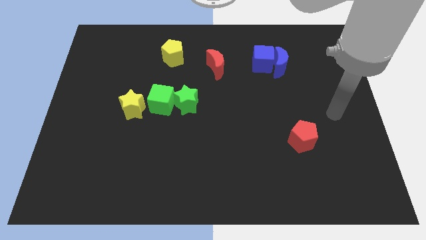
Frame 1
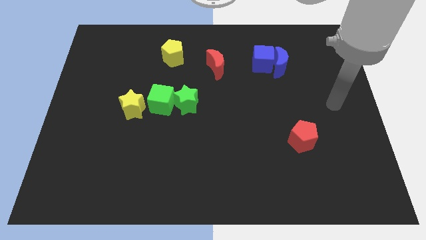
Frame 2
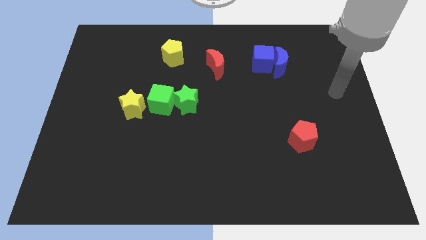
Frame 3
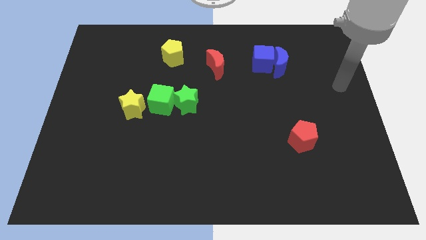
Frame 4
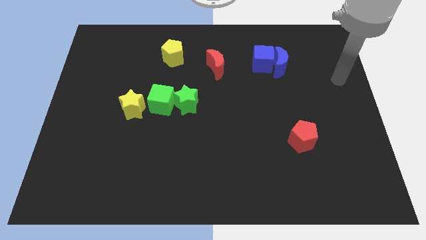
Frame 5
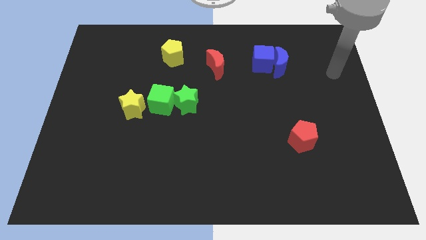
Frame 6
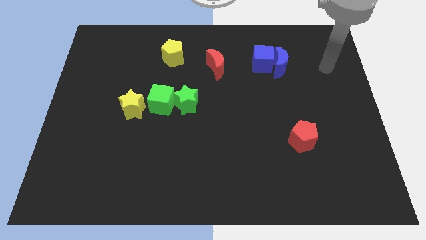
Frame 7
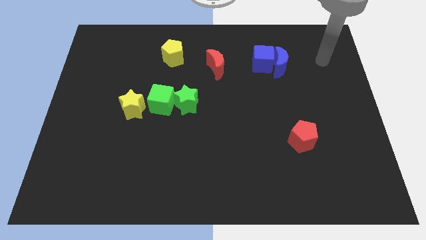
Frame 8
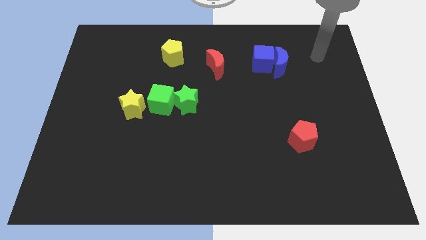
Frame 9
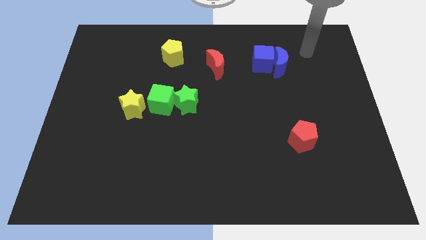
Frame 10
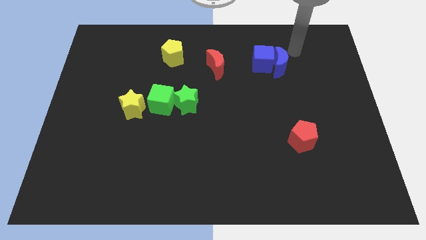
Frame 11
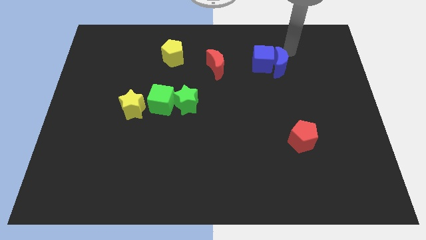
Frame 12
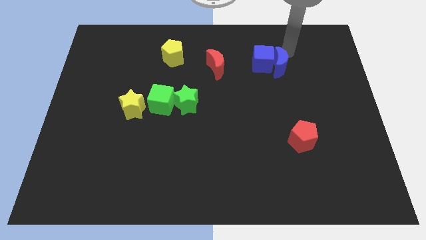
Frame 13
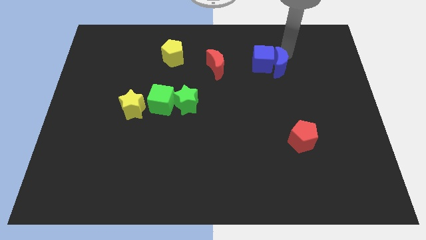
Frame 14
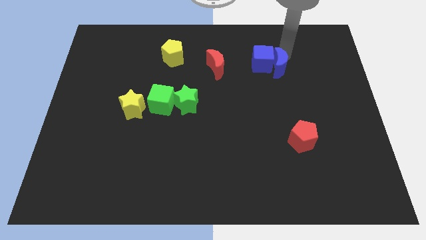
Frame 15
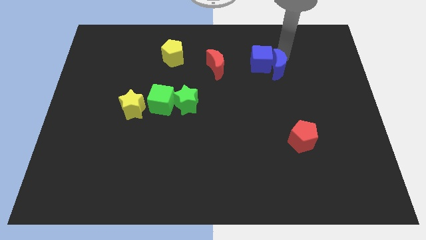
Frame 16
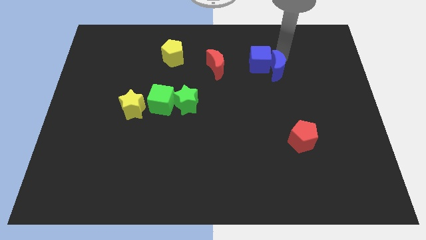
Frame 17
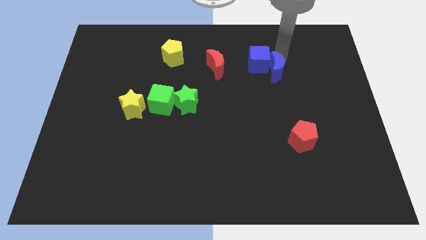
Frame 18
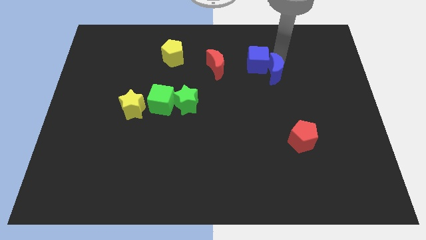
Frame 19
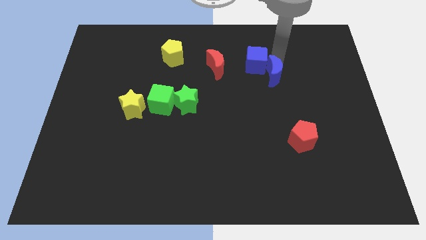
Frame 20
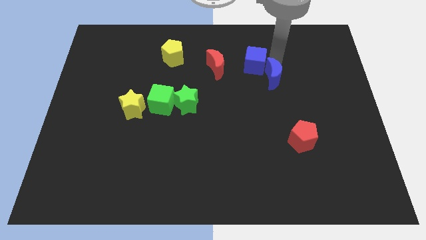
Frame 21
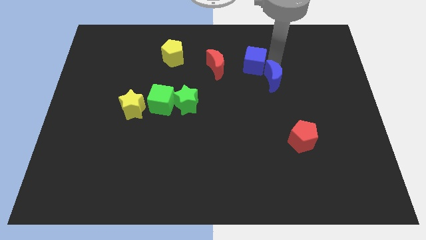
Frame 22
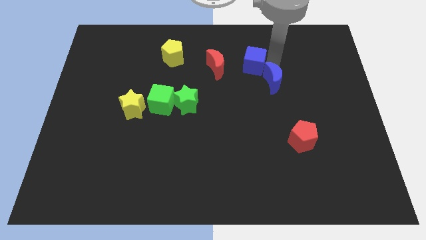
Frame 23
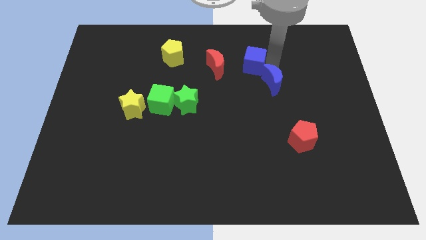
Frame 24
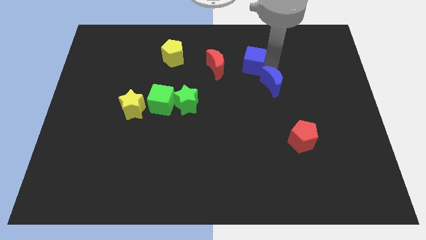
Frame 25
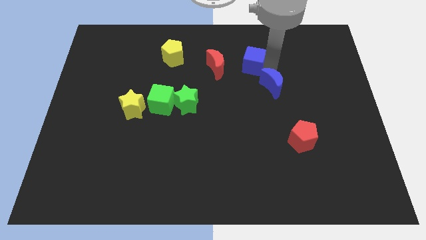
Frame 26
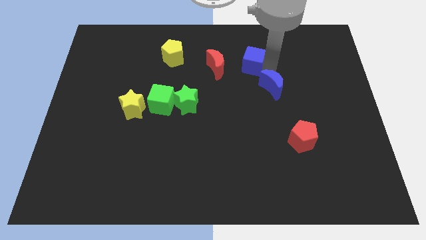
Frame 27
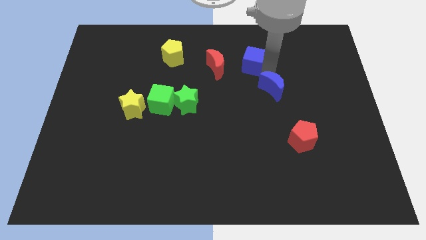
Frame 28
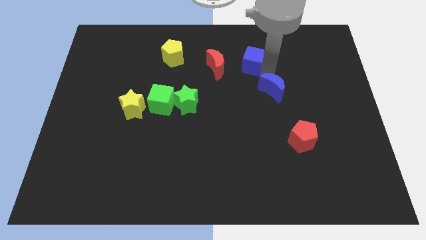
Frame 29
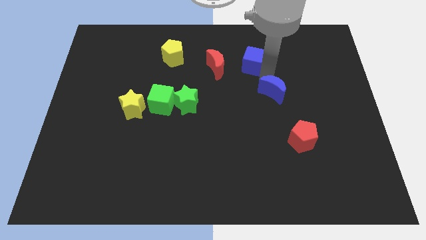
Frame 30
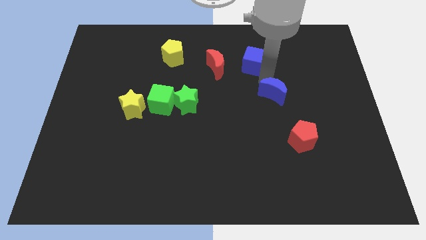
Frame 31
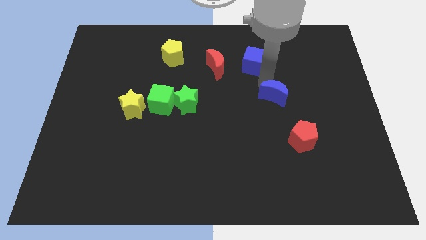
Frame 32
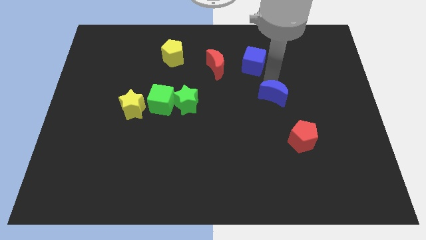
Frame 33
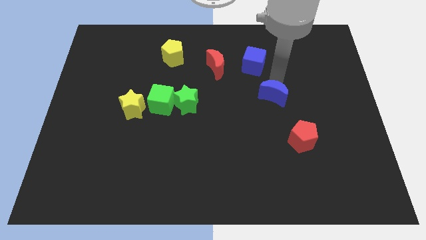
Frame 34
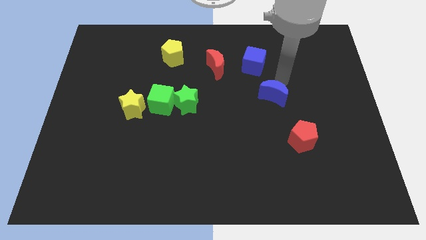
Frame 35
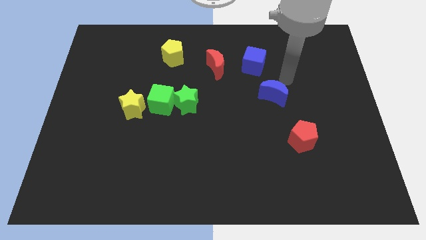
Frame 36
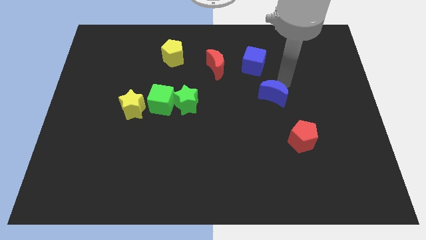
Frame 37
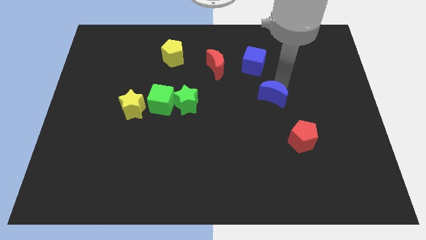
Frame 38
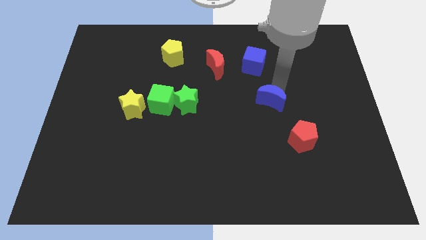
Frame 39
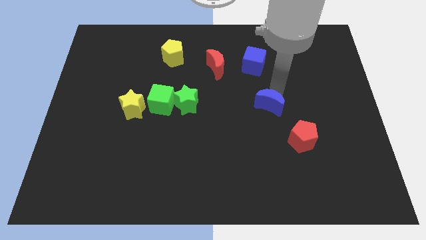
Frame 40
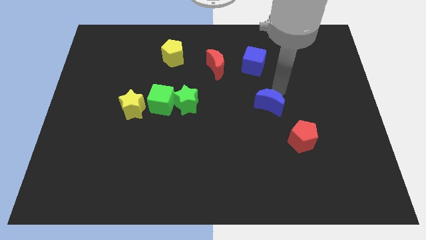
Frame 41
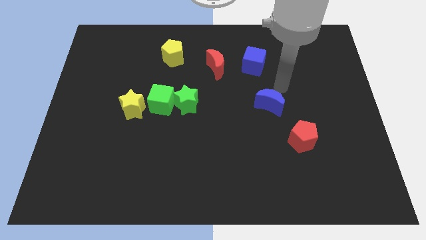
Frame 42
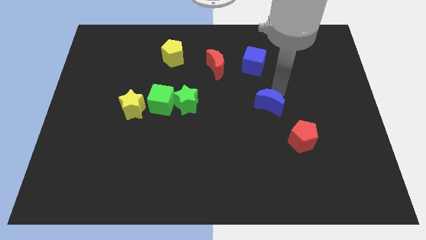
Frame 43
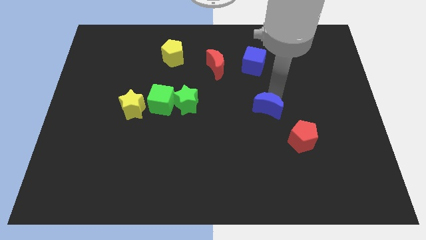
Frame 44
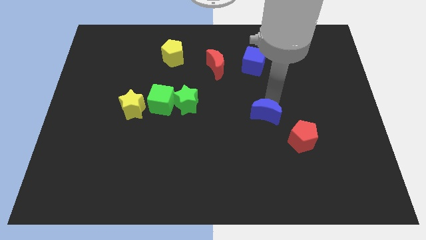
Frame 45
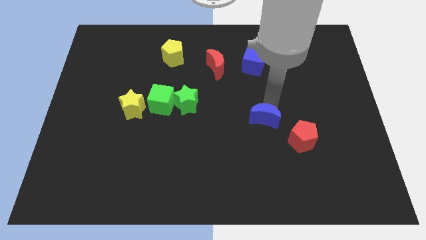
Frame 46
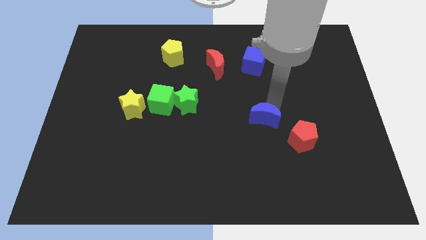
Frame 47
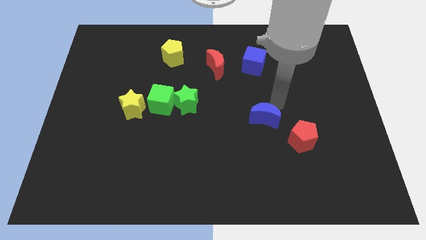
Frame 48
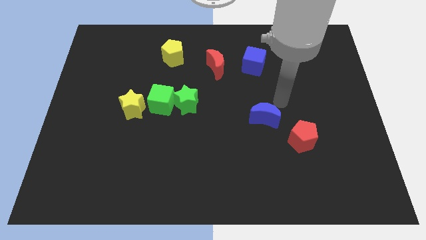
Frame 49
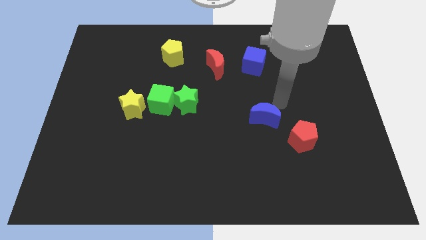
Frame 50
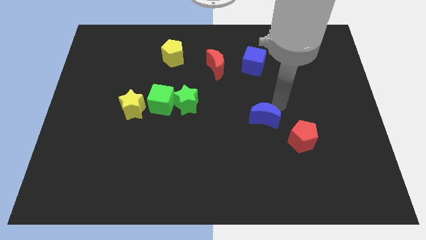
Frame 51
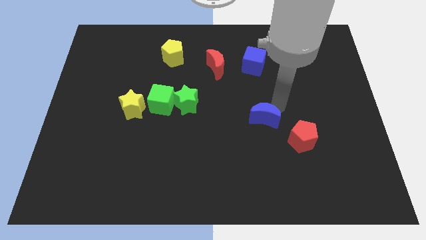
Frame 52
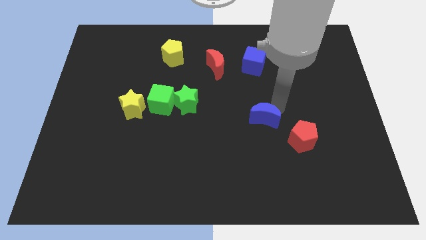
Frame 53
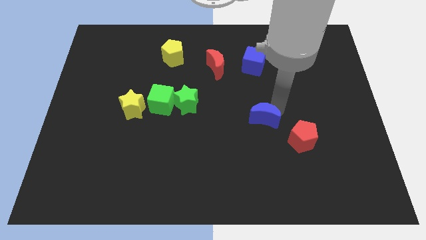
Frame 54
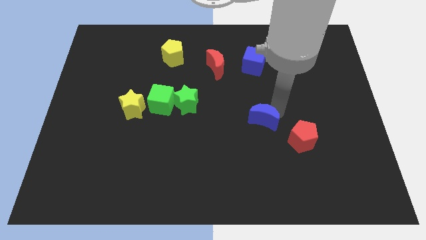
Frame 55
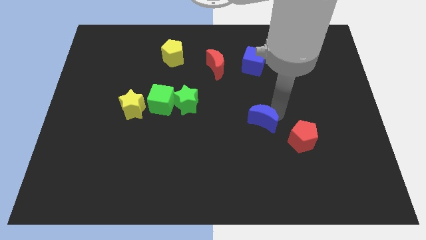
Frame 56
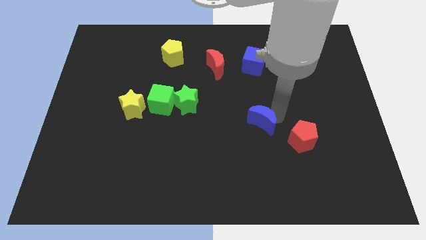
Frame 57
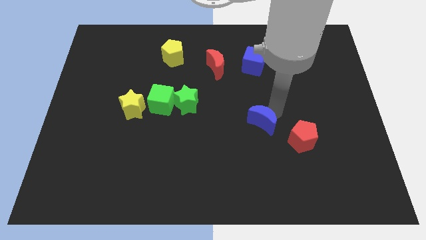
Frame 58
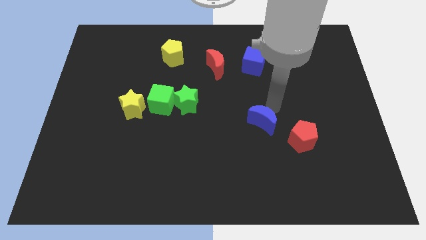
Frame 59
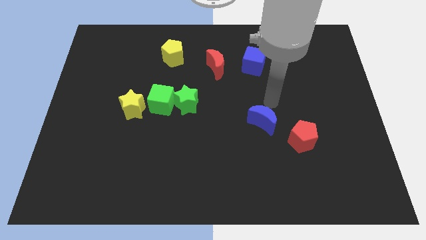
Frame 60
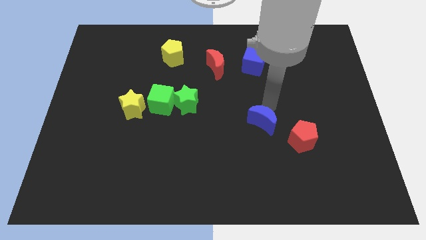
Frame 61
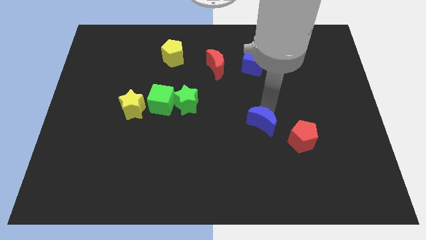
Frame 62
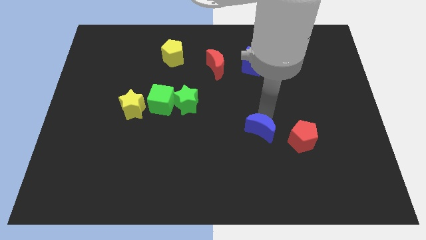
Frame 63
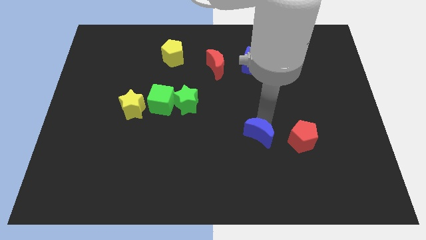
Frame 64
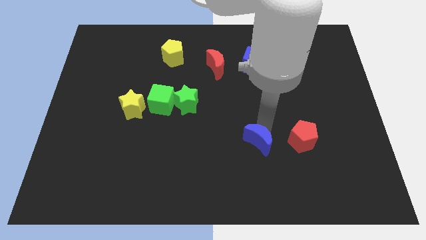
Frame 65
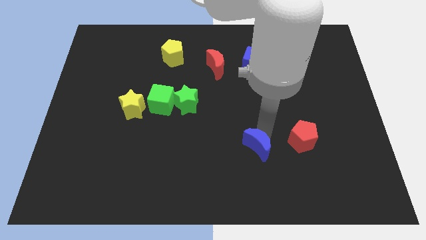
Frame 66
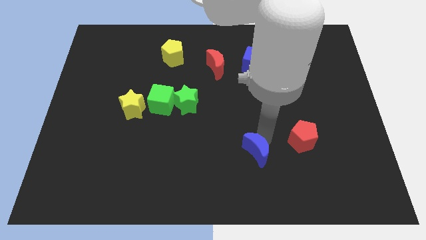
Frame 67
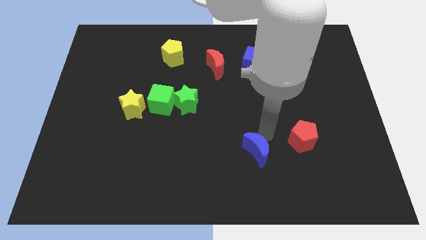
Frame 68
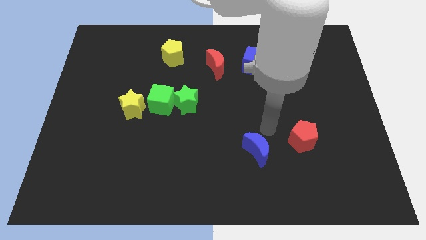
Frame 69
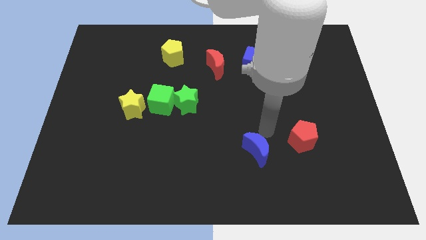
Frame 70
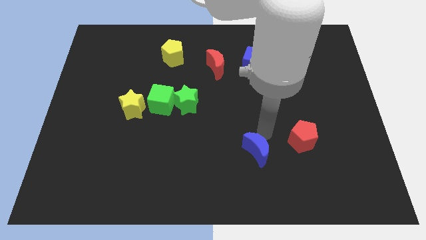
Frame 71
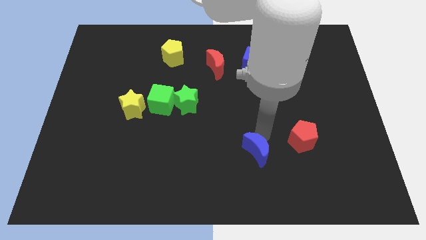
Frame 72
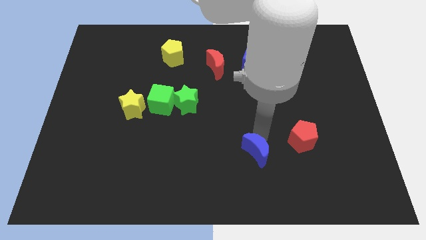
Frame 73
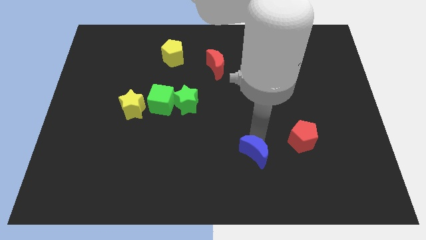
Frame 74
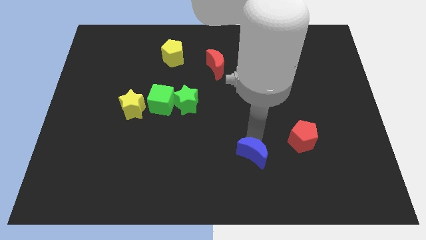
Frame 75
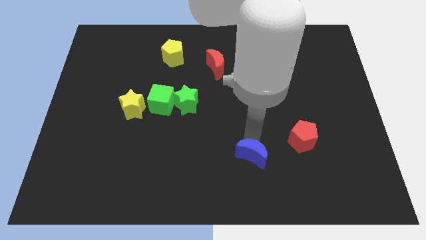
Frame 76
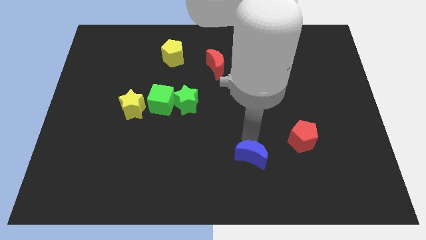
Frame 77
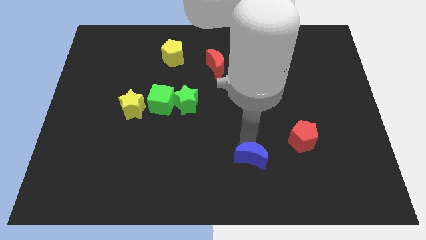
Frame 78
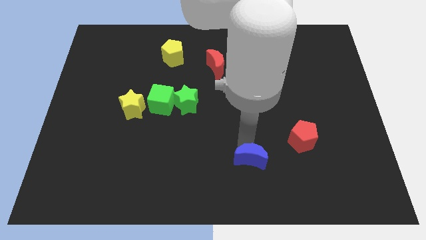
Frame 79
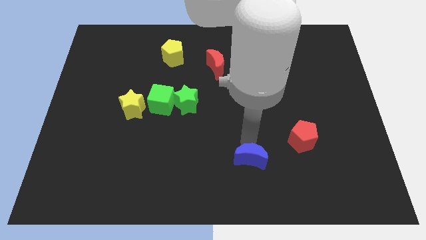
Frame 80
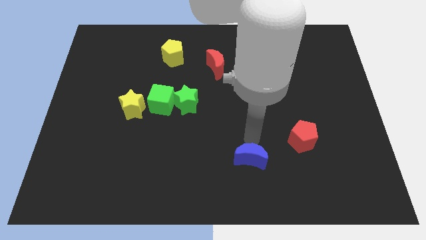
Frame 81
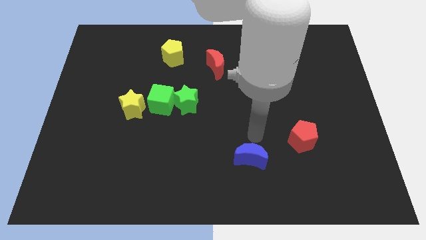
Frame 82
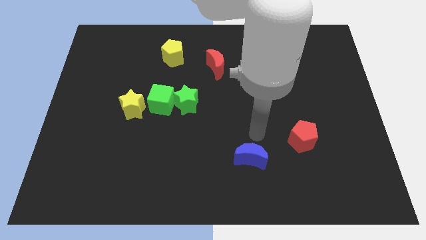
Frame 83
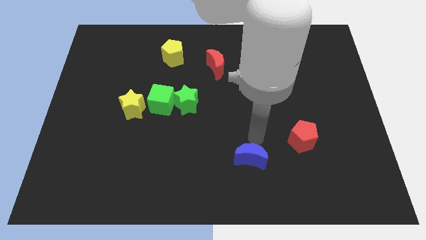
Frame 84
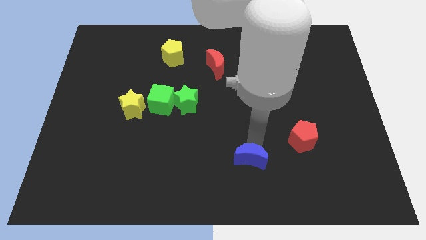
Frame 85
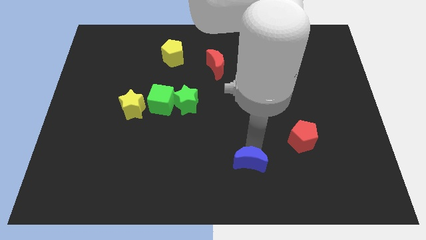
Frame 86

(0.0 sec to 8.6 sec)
move the blue moon to the bottom side
